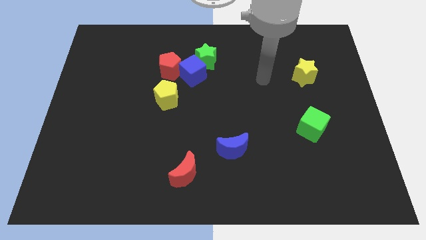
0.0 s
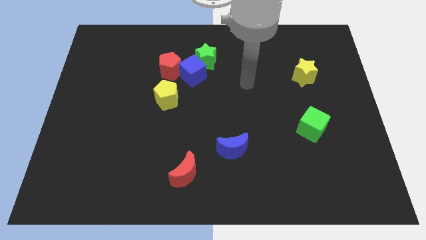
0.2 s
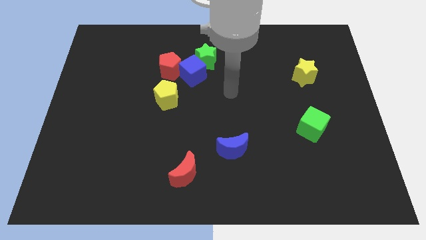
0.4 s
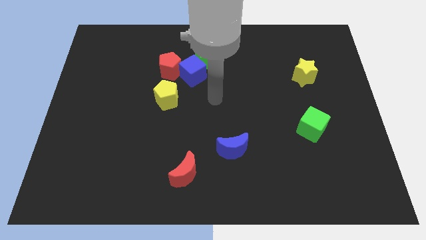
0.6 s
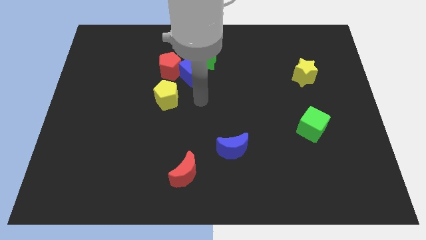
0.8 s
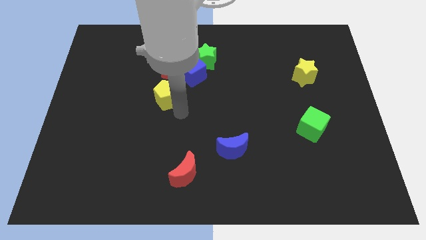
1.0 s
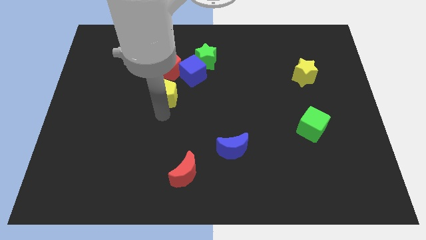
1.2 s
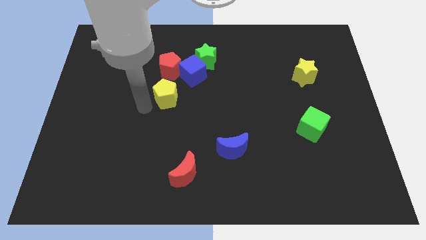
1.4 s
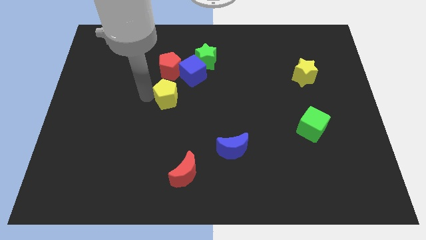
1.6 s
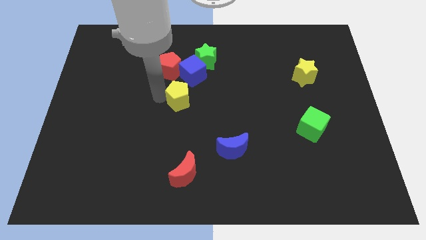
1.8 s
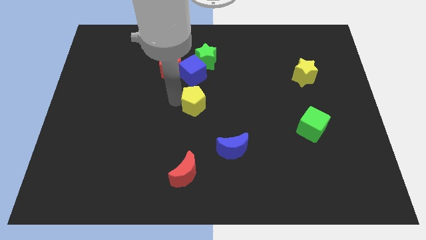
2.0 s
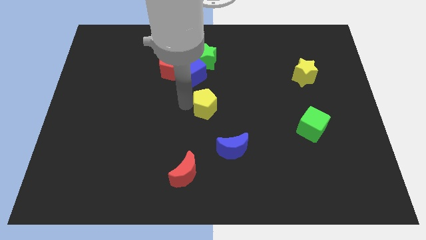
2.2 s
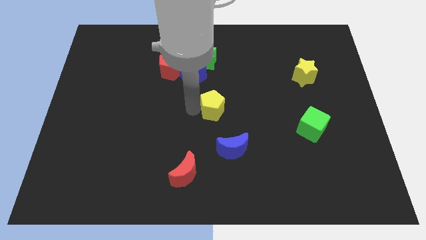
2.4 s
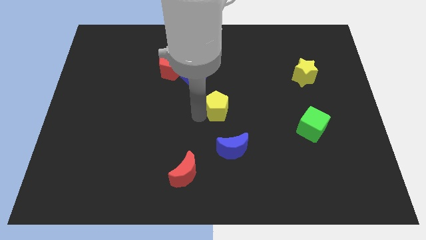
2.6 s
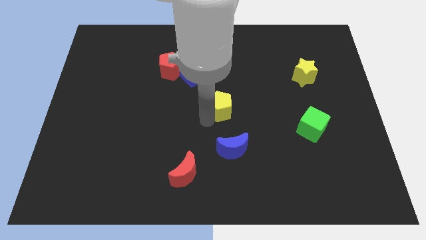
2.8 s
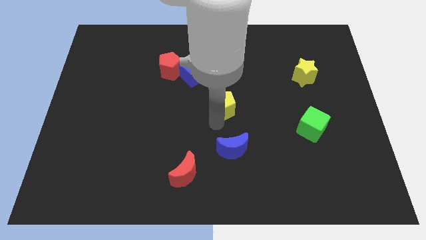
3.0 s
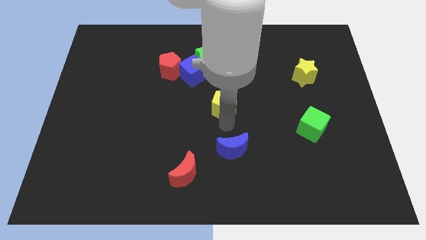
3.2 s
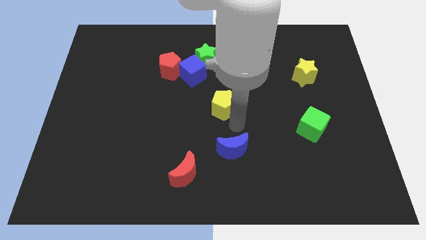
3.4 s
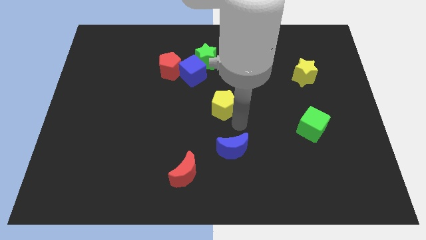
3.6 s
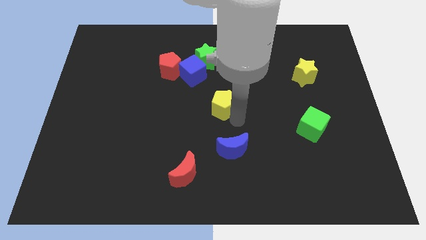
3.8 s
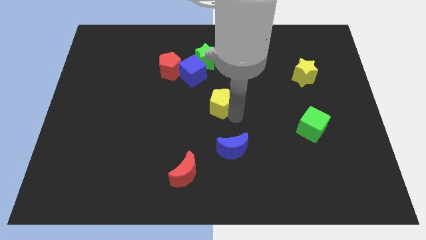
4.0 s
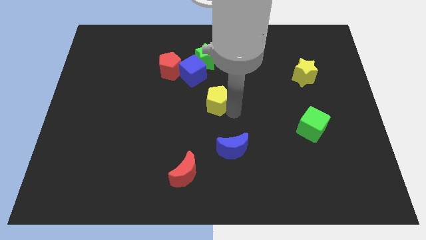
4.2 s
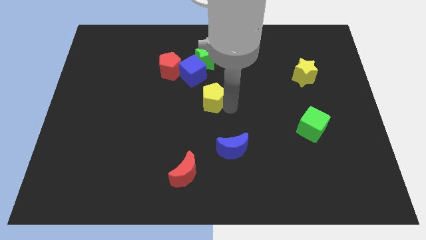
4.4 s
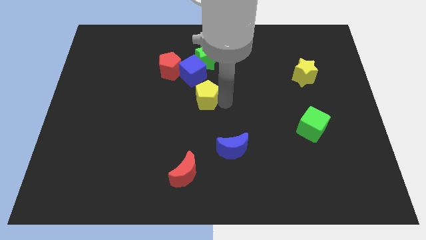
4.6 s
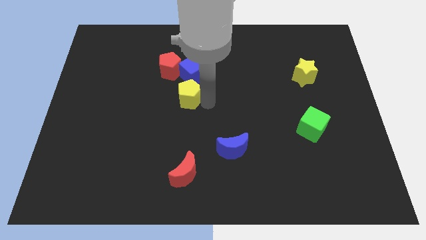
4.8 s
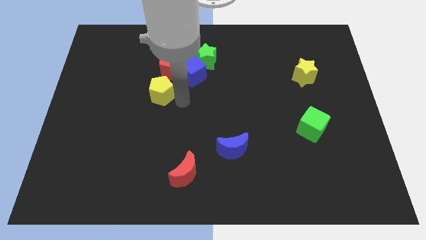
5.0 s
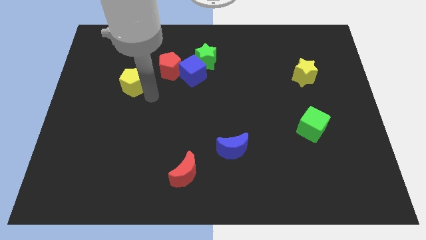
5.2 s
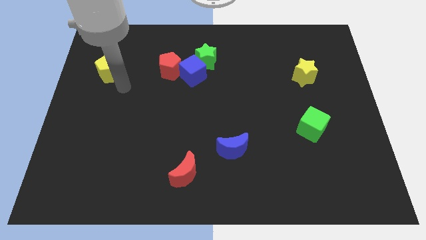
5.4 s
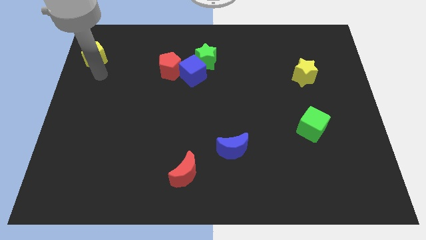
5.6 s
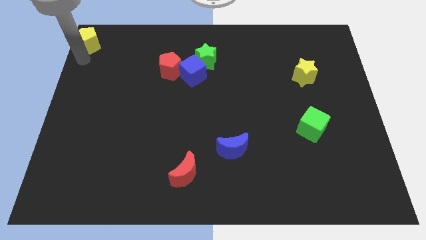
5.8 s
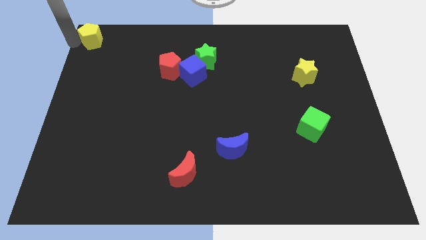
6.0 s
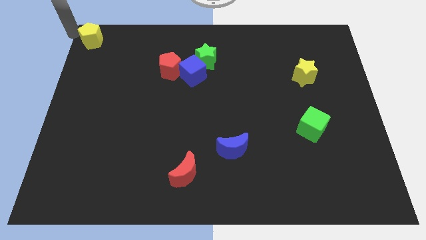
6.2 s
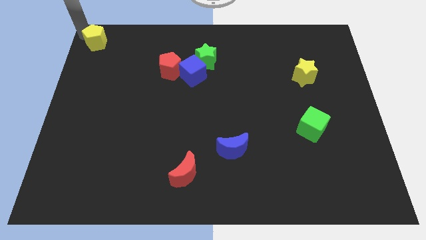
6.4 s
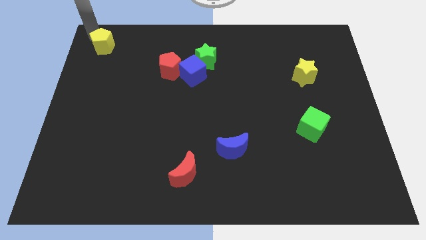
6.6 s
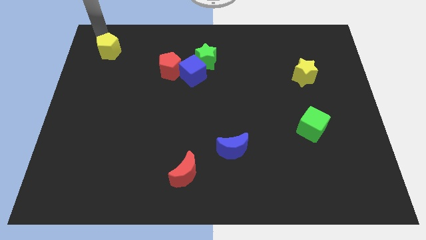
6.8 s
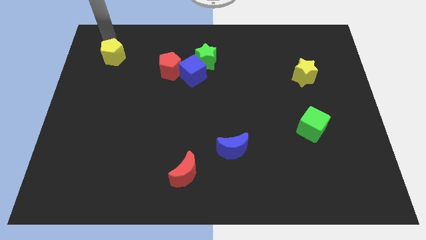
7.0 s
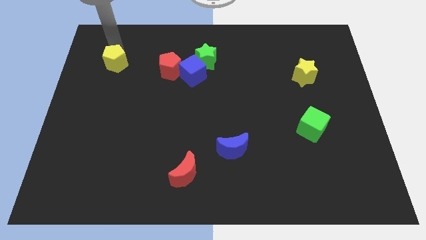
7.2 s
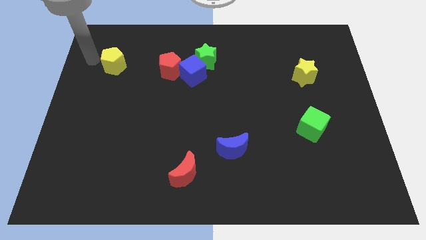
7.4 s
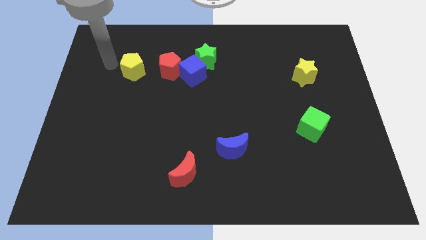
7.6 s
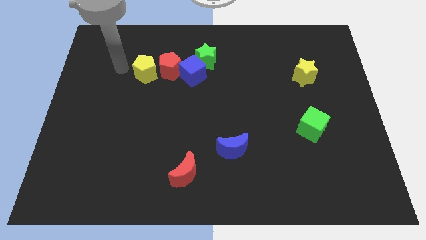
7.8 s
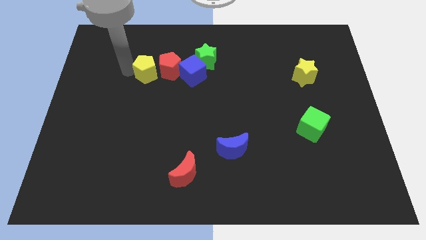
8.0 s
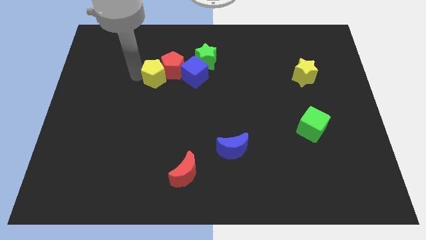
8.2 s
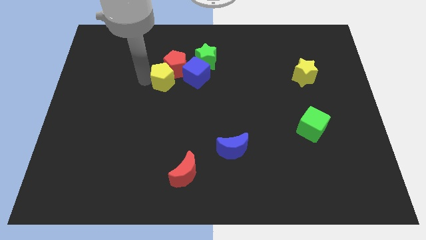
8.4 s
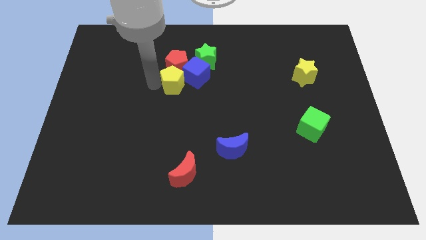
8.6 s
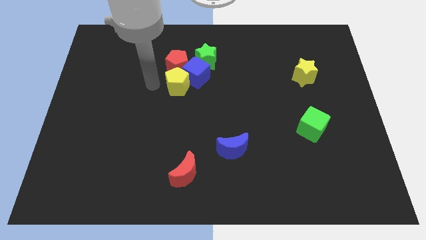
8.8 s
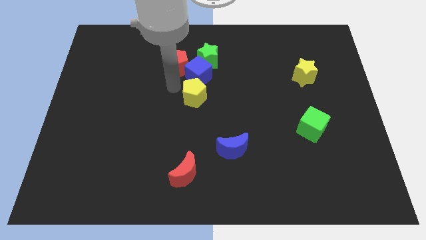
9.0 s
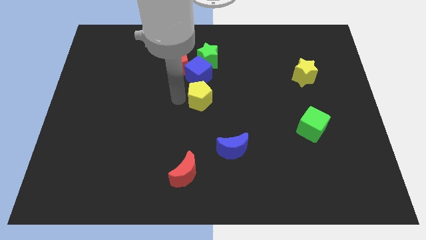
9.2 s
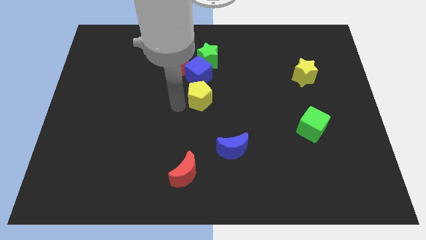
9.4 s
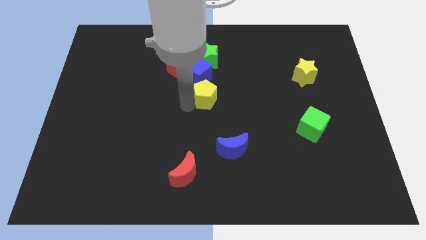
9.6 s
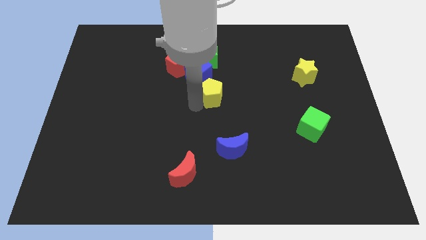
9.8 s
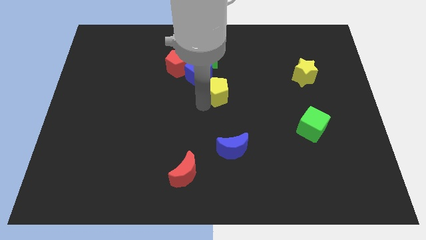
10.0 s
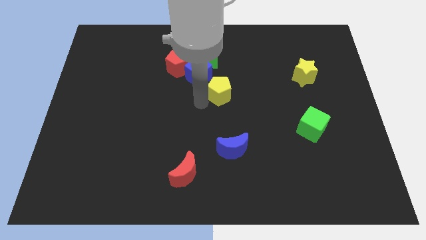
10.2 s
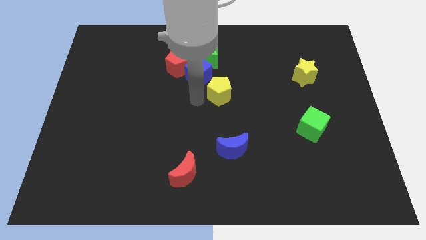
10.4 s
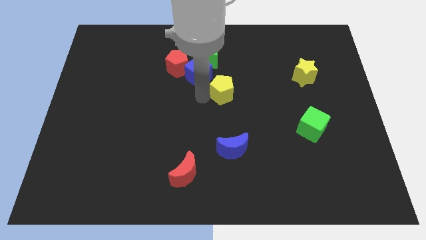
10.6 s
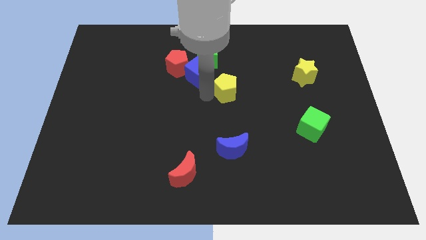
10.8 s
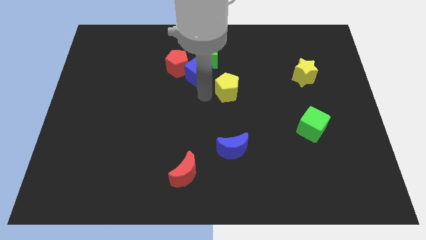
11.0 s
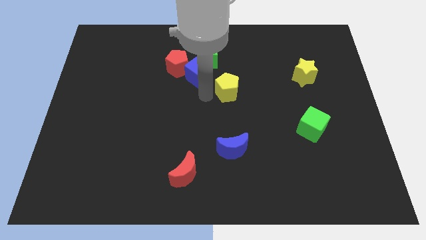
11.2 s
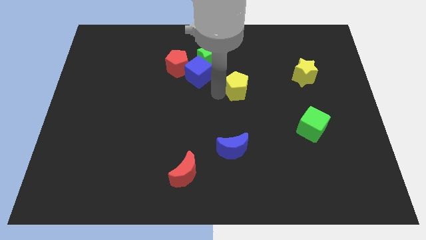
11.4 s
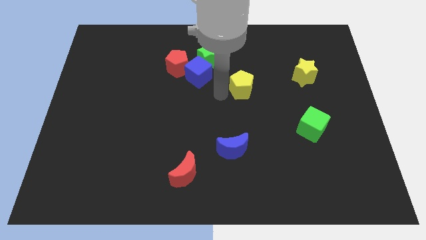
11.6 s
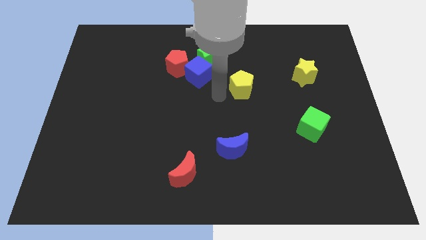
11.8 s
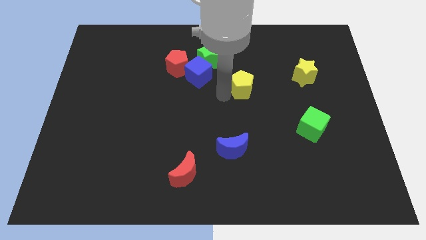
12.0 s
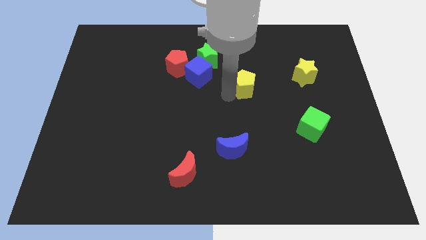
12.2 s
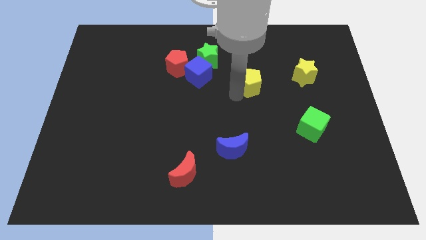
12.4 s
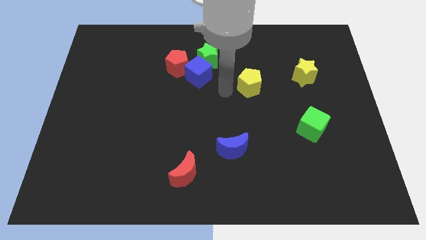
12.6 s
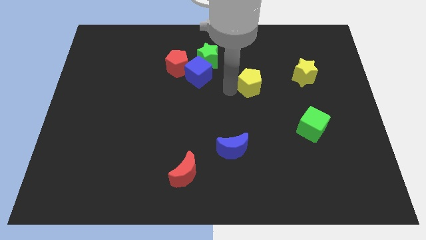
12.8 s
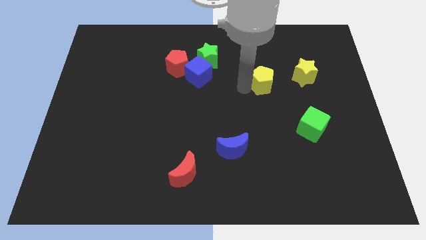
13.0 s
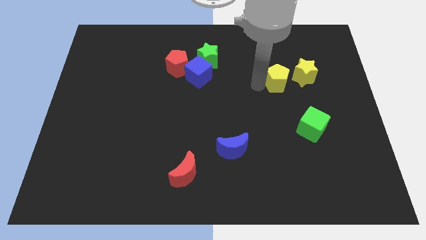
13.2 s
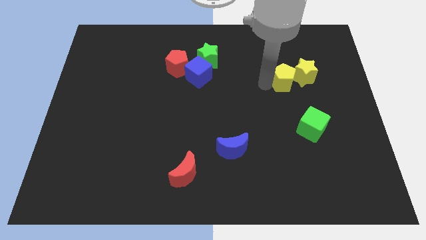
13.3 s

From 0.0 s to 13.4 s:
put the yellow pentagon to the yellow star
